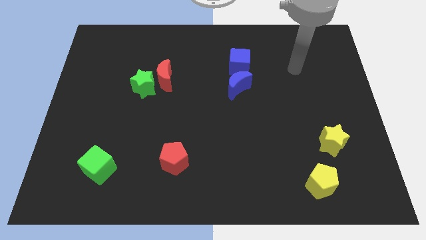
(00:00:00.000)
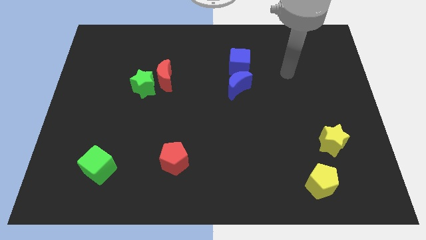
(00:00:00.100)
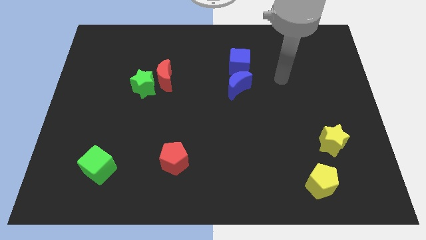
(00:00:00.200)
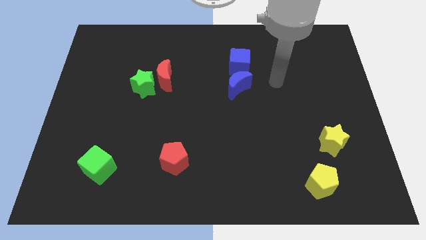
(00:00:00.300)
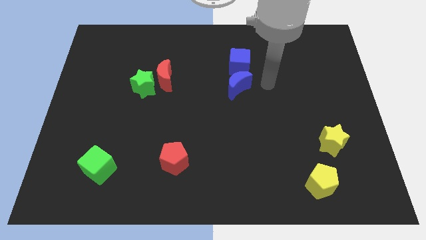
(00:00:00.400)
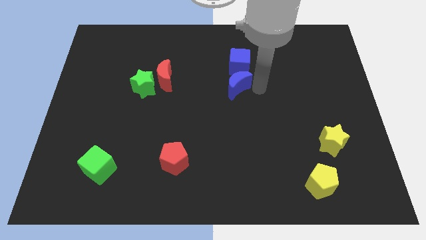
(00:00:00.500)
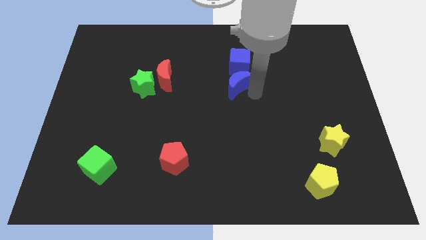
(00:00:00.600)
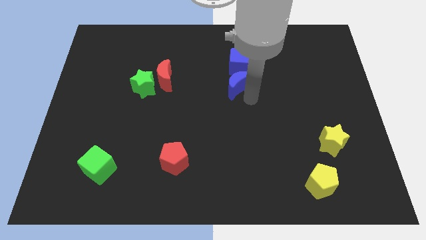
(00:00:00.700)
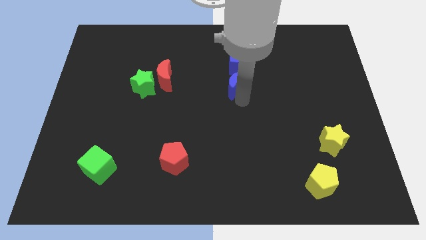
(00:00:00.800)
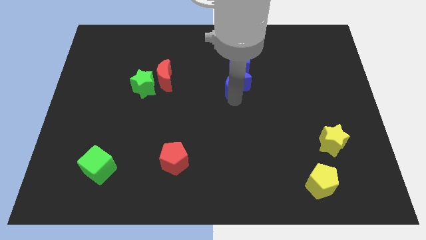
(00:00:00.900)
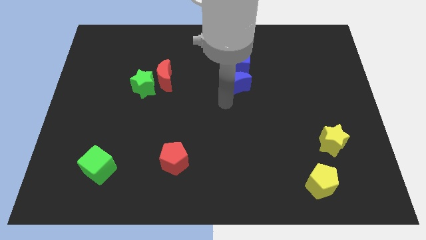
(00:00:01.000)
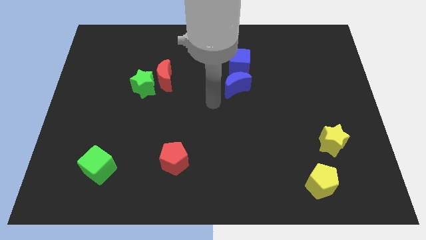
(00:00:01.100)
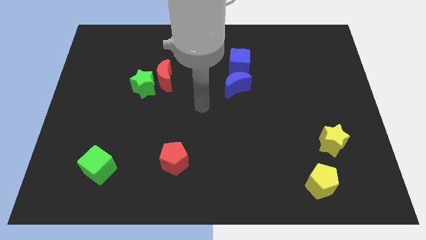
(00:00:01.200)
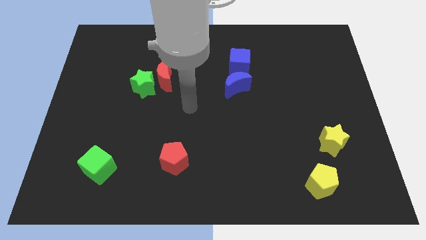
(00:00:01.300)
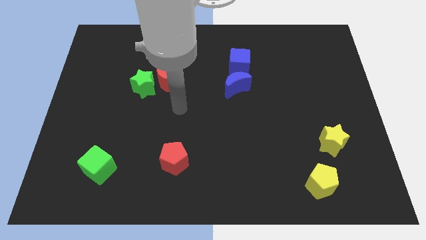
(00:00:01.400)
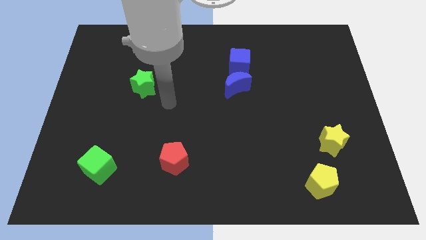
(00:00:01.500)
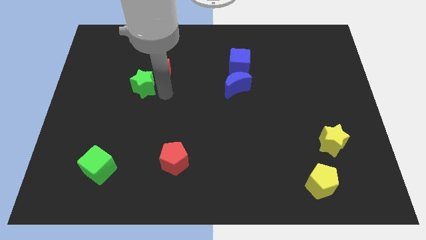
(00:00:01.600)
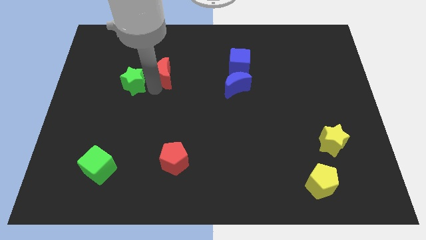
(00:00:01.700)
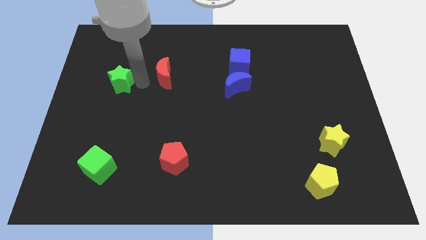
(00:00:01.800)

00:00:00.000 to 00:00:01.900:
pull the red moon apart from the green star

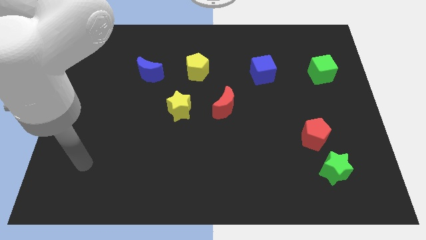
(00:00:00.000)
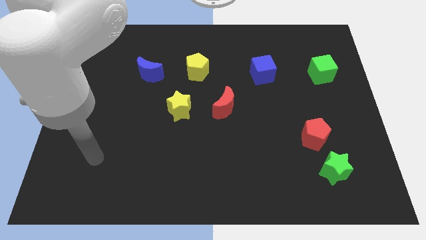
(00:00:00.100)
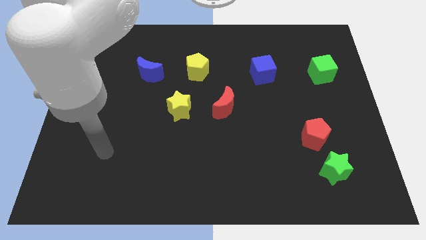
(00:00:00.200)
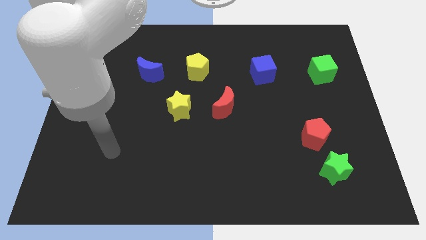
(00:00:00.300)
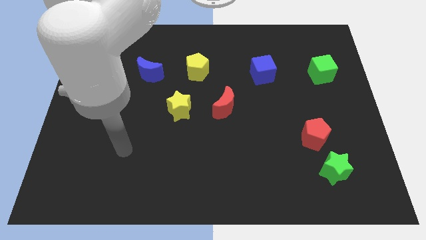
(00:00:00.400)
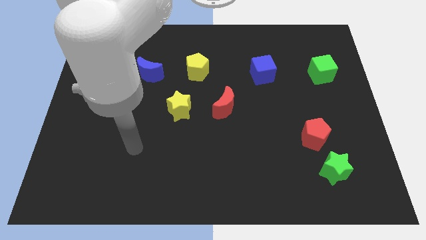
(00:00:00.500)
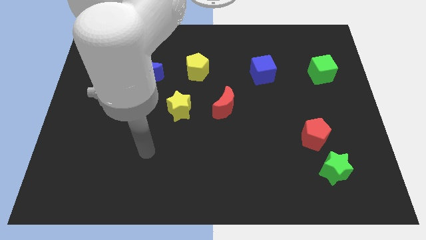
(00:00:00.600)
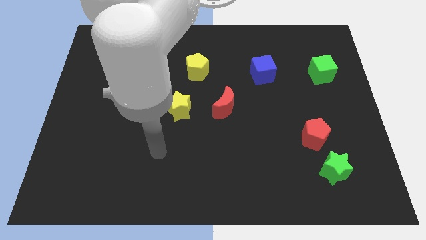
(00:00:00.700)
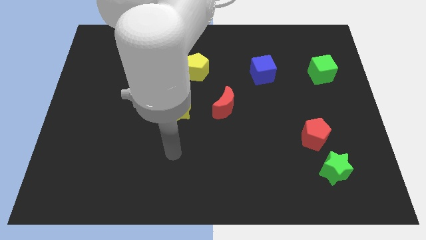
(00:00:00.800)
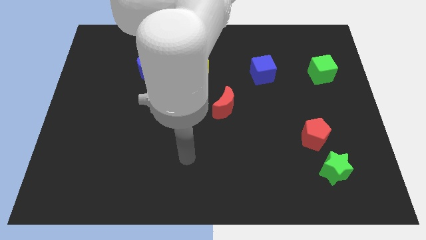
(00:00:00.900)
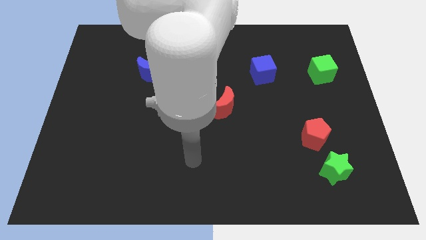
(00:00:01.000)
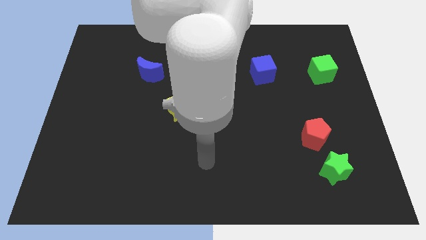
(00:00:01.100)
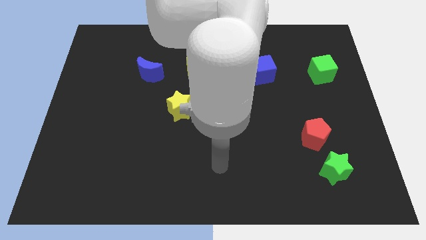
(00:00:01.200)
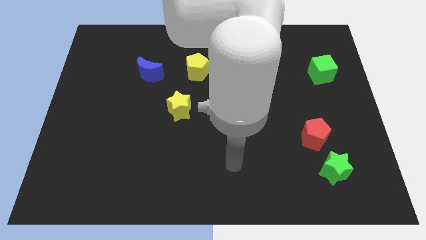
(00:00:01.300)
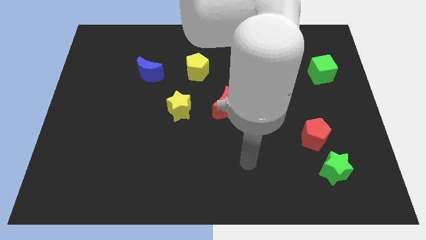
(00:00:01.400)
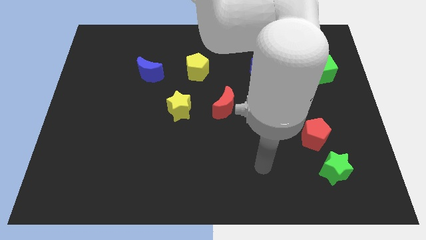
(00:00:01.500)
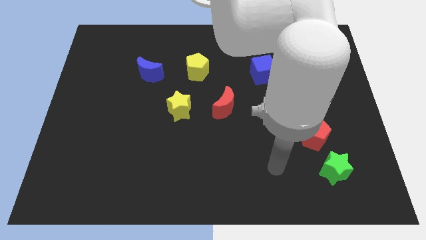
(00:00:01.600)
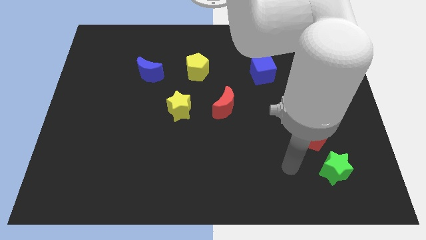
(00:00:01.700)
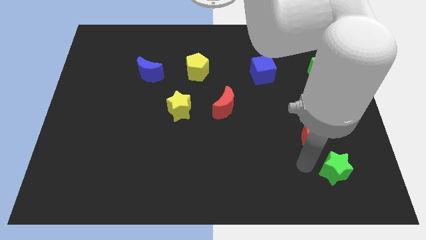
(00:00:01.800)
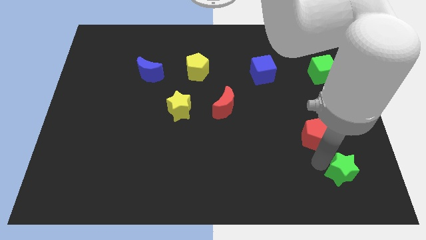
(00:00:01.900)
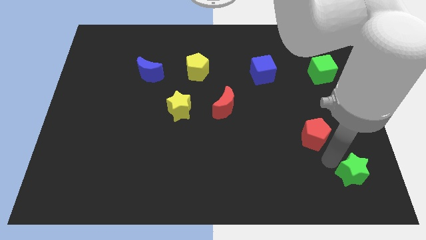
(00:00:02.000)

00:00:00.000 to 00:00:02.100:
move the red pentagon away from the green star

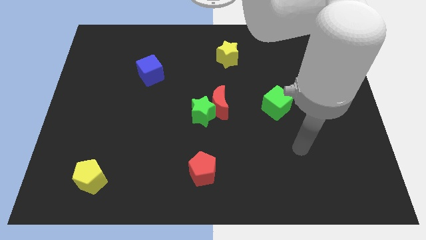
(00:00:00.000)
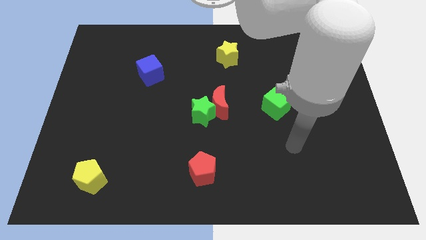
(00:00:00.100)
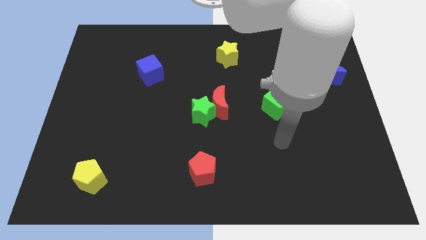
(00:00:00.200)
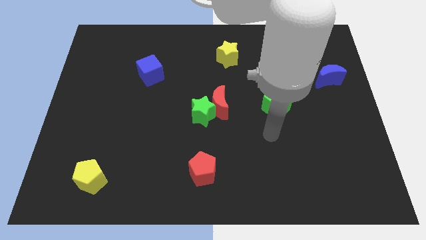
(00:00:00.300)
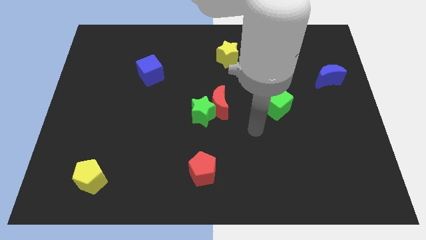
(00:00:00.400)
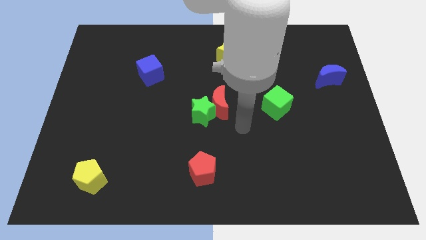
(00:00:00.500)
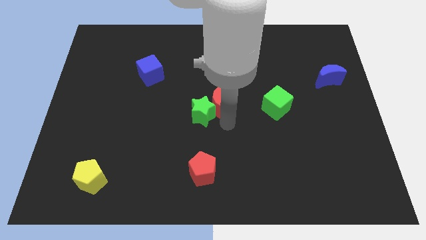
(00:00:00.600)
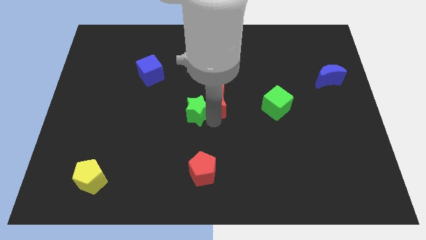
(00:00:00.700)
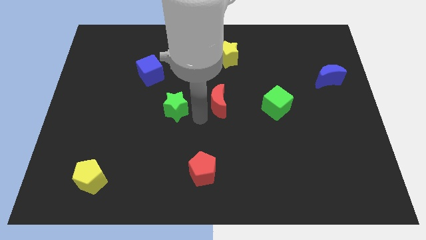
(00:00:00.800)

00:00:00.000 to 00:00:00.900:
move the red moon away from the green star

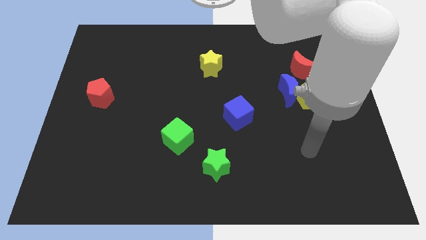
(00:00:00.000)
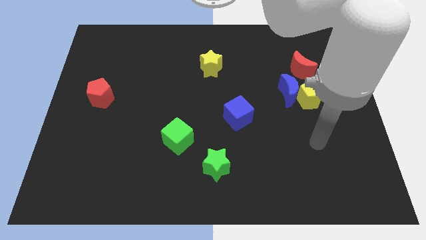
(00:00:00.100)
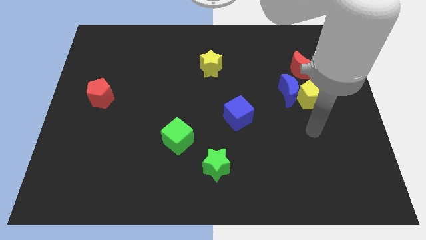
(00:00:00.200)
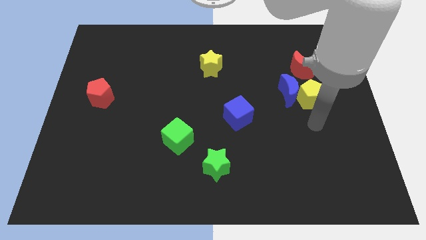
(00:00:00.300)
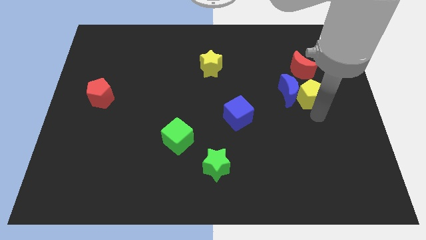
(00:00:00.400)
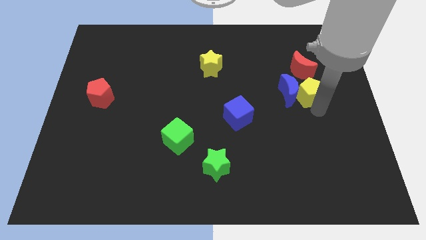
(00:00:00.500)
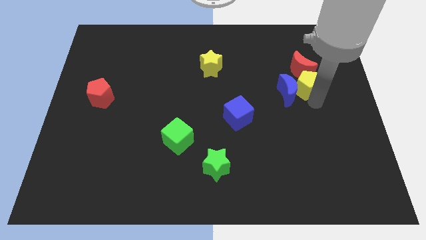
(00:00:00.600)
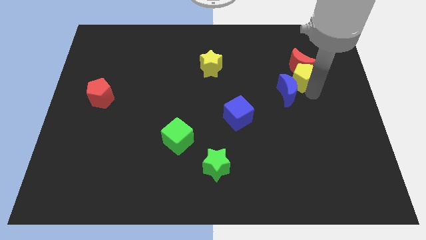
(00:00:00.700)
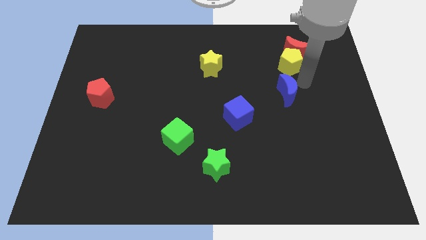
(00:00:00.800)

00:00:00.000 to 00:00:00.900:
separate the blue moon from the yellow pentagon and red moon

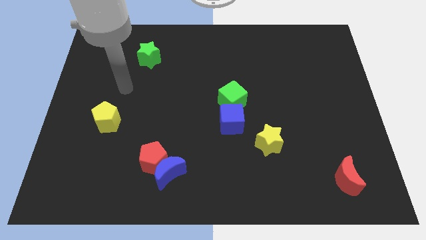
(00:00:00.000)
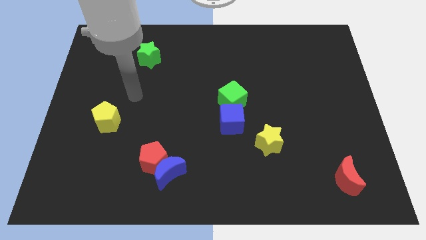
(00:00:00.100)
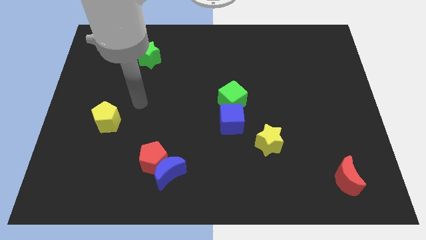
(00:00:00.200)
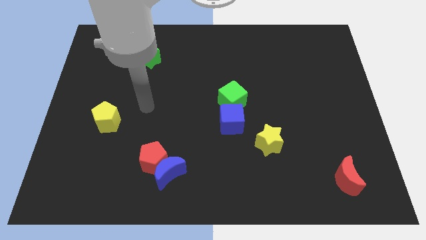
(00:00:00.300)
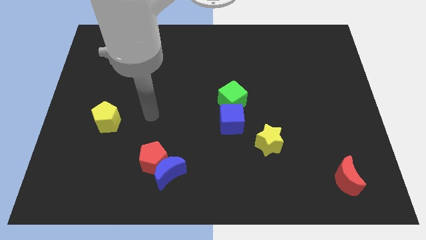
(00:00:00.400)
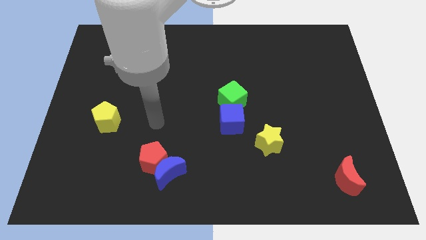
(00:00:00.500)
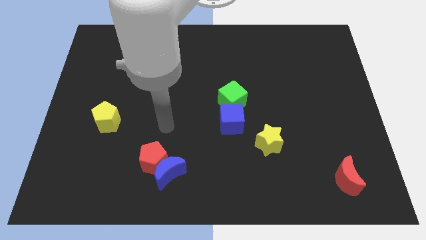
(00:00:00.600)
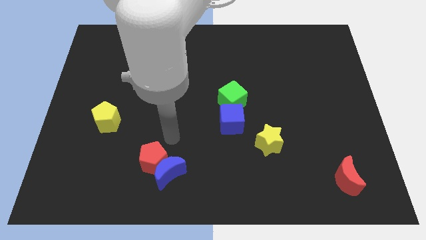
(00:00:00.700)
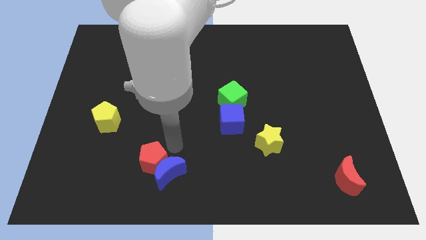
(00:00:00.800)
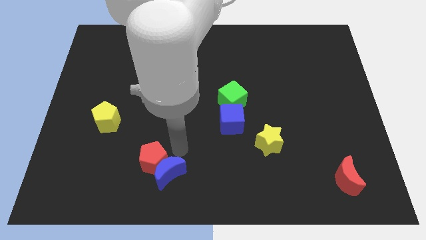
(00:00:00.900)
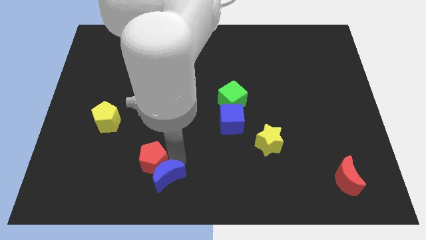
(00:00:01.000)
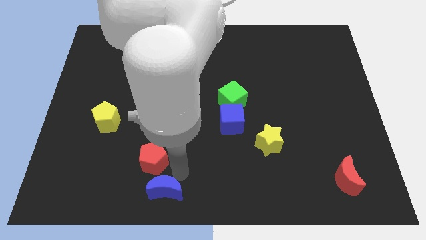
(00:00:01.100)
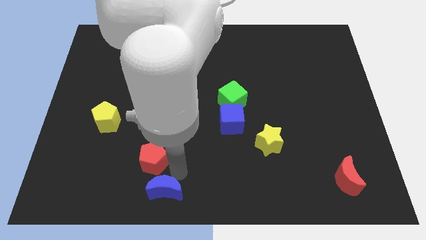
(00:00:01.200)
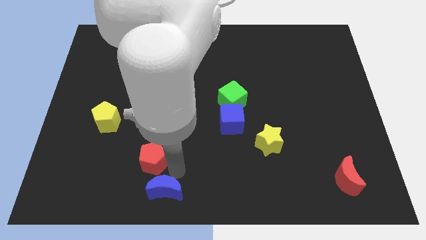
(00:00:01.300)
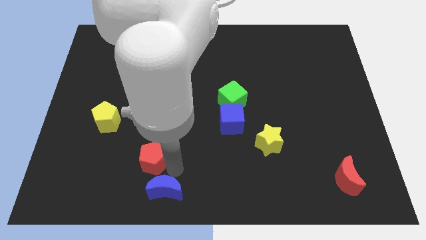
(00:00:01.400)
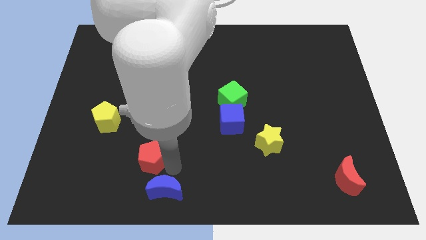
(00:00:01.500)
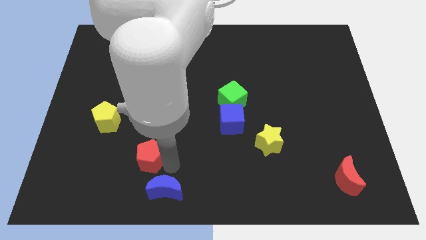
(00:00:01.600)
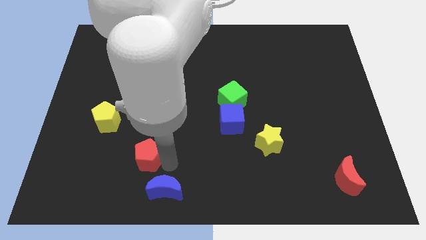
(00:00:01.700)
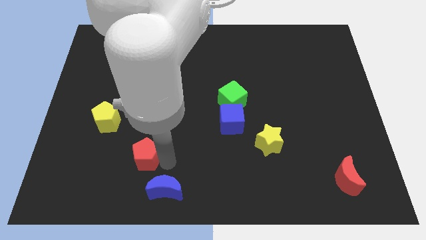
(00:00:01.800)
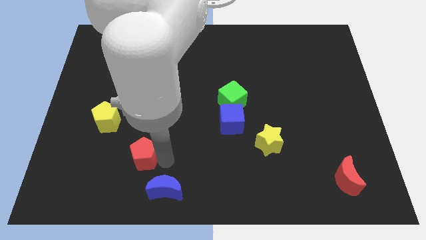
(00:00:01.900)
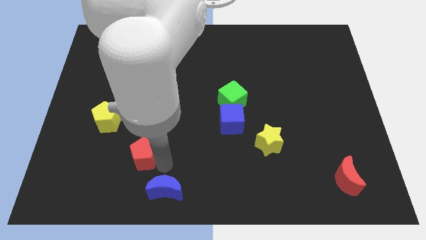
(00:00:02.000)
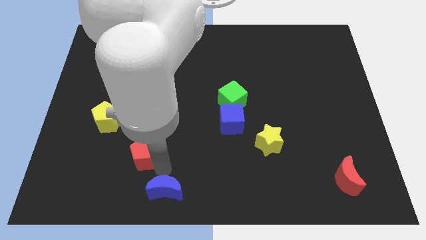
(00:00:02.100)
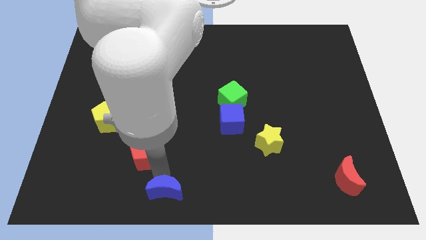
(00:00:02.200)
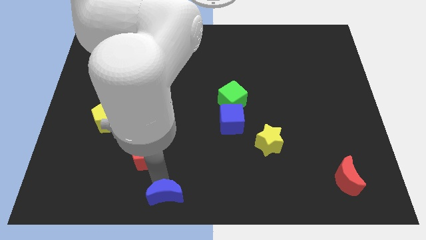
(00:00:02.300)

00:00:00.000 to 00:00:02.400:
move the red pentagon away from the blue moon

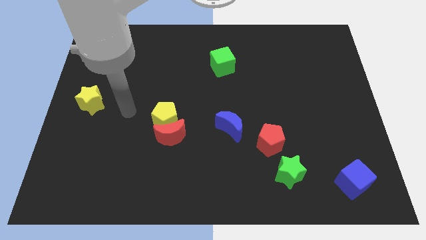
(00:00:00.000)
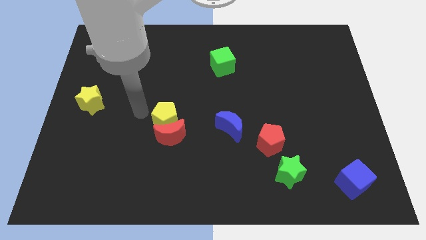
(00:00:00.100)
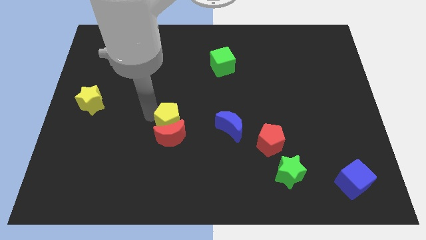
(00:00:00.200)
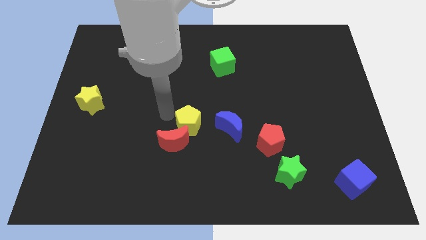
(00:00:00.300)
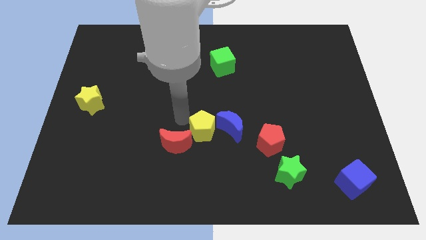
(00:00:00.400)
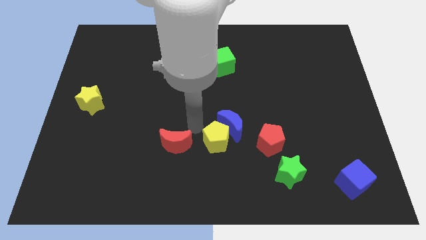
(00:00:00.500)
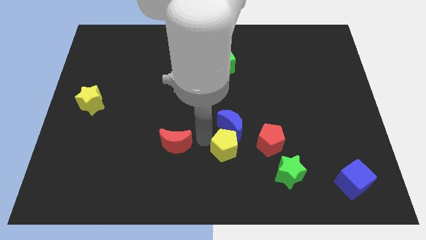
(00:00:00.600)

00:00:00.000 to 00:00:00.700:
pull the red moon apart from the yellow pentagon

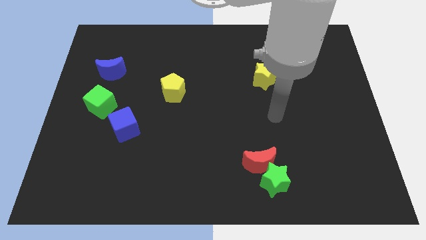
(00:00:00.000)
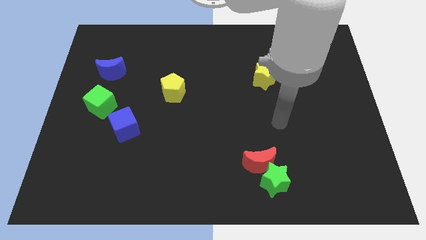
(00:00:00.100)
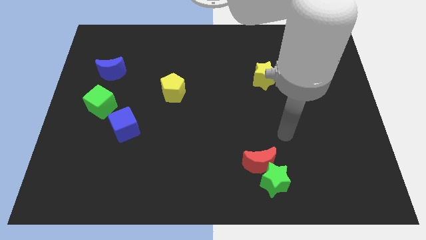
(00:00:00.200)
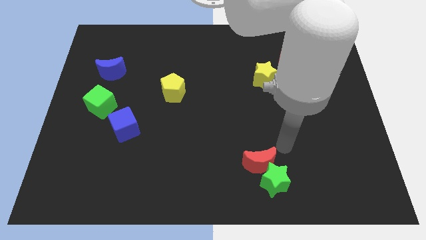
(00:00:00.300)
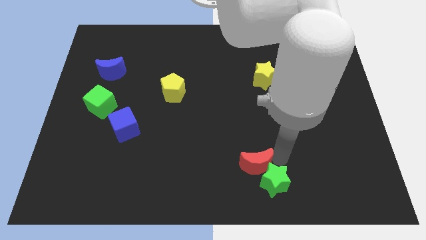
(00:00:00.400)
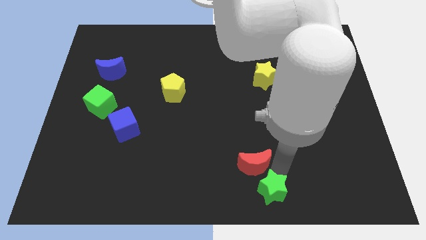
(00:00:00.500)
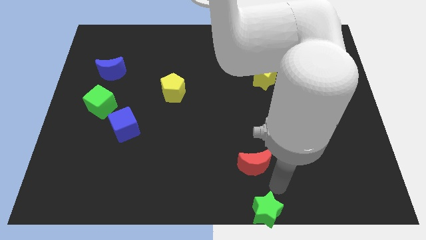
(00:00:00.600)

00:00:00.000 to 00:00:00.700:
separate the red moon from the green star
